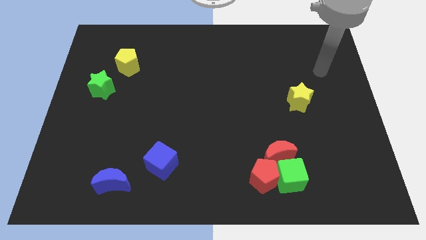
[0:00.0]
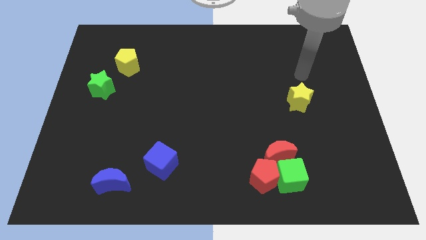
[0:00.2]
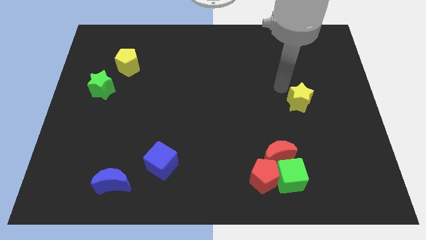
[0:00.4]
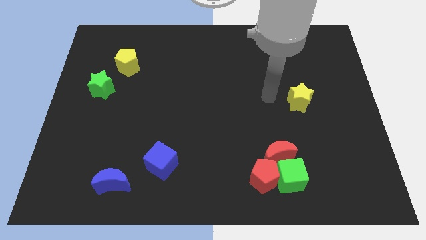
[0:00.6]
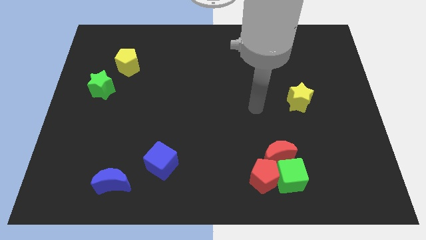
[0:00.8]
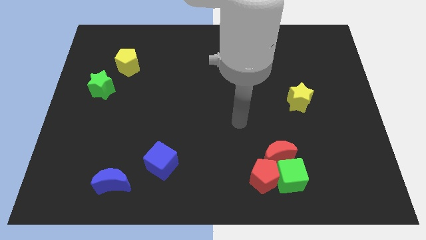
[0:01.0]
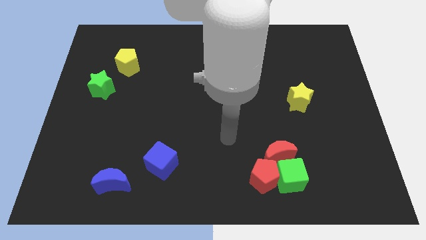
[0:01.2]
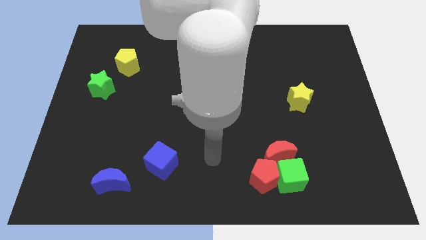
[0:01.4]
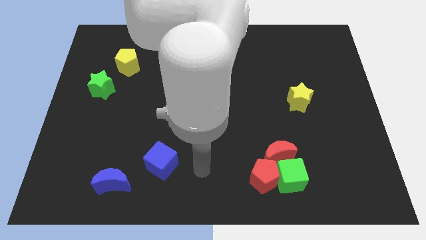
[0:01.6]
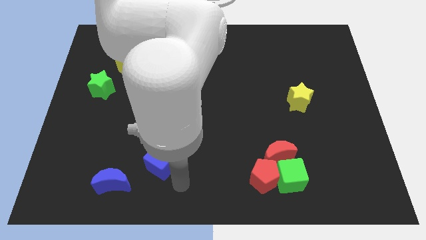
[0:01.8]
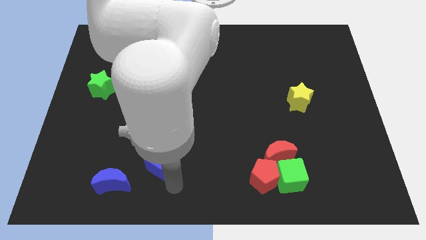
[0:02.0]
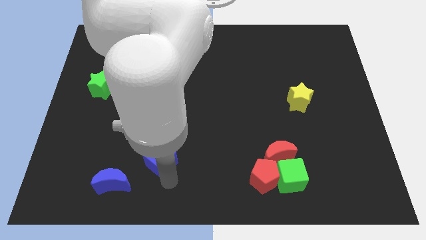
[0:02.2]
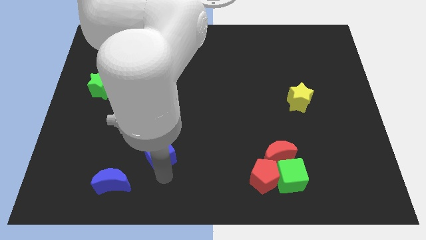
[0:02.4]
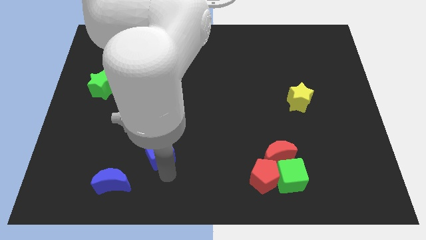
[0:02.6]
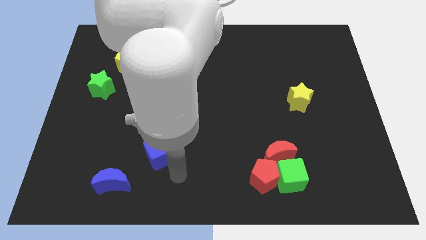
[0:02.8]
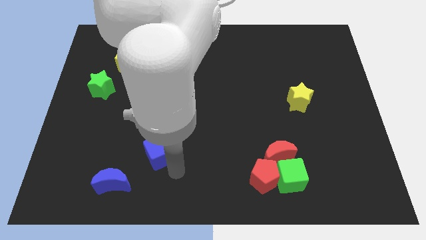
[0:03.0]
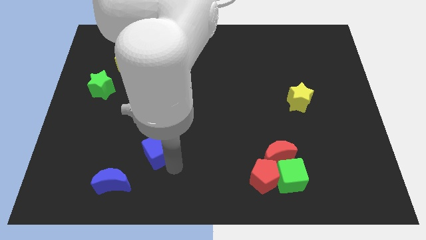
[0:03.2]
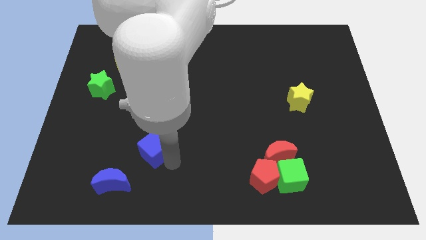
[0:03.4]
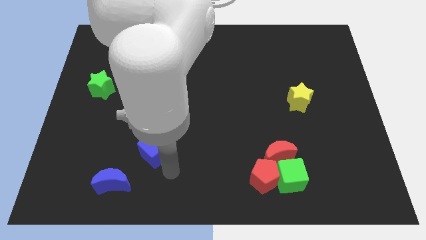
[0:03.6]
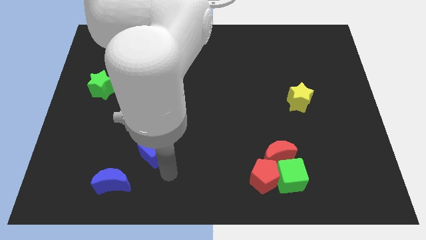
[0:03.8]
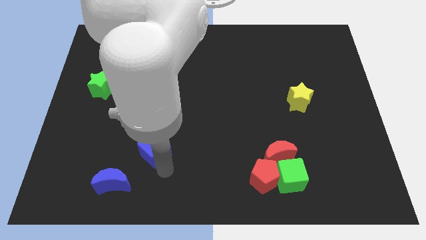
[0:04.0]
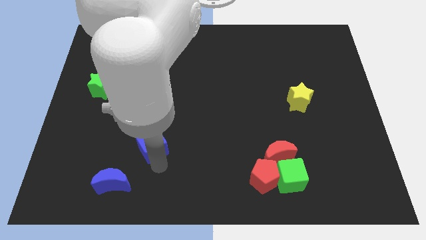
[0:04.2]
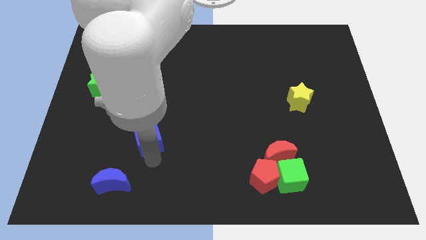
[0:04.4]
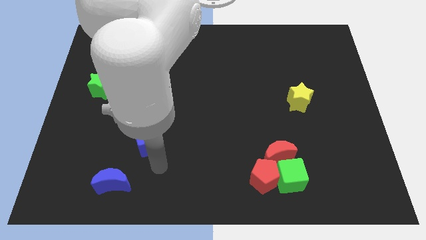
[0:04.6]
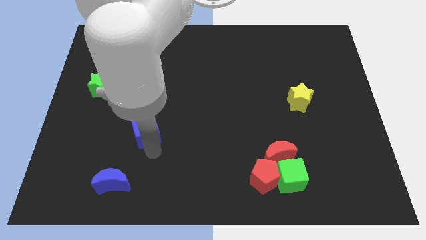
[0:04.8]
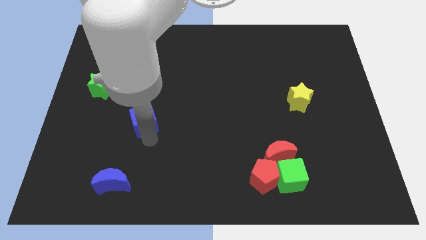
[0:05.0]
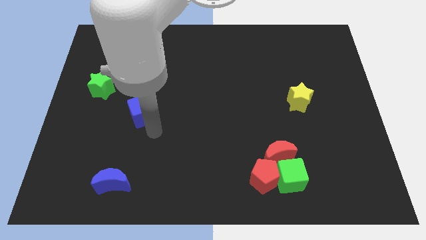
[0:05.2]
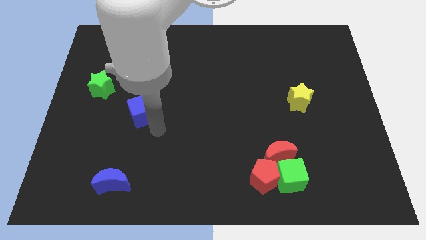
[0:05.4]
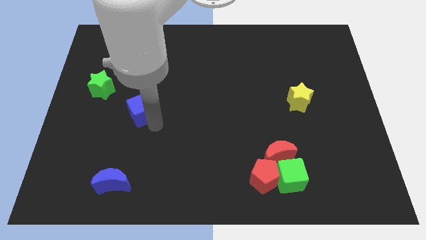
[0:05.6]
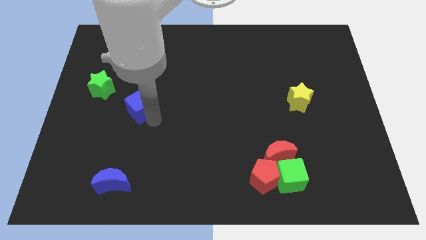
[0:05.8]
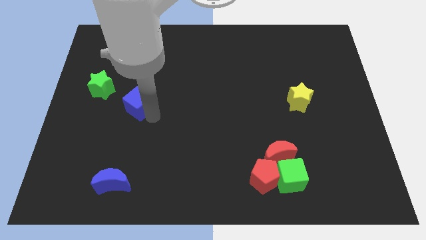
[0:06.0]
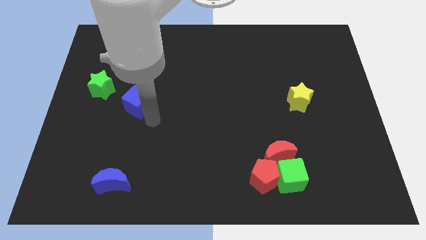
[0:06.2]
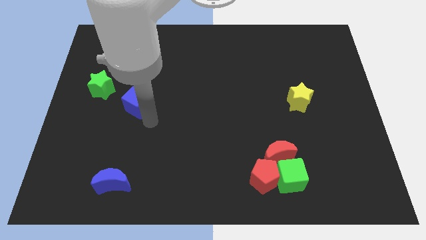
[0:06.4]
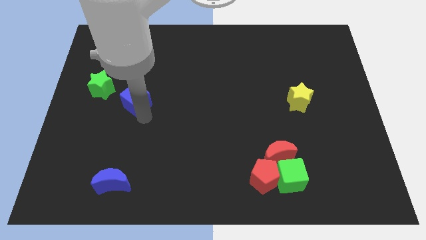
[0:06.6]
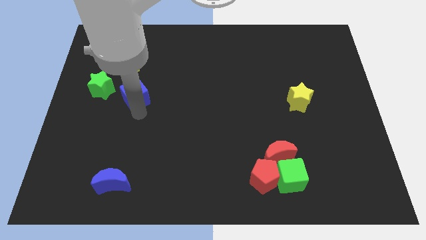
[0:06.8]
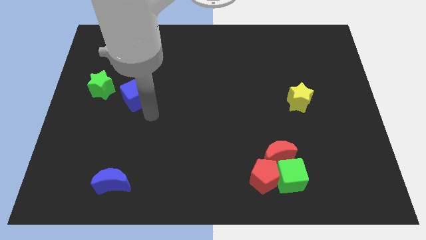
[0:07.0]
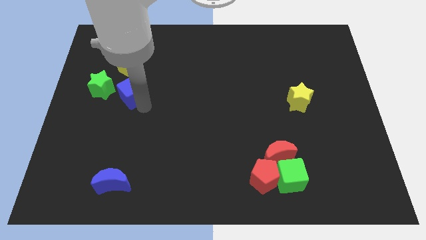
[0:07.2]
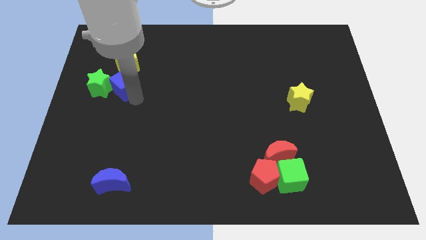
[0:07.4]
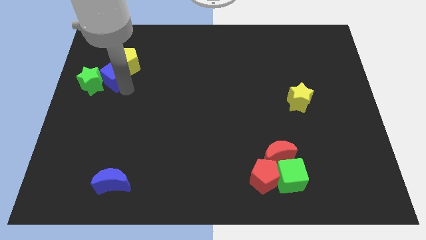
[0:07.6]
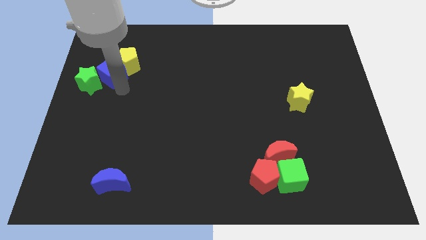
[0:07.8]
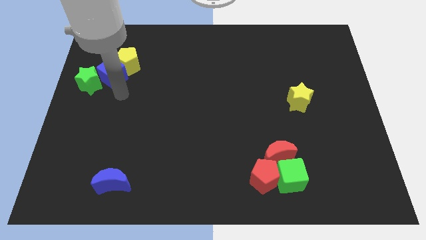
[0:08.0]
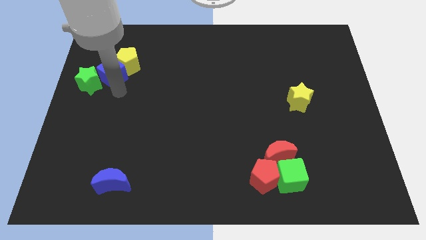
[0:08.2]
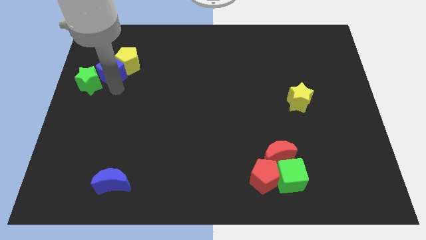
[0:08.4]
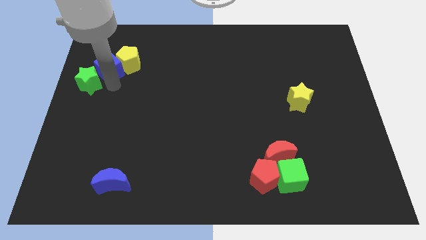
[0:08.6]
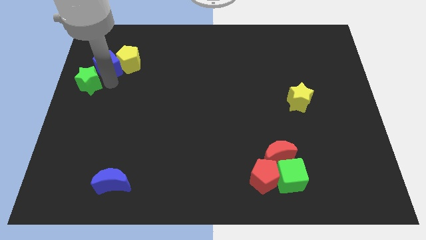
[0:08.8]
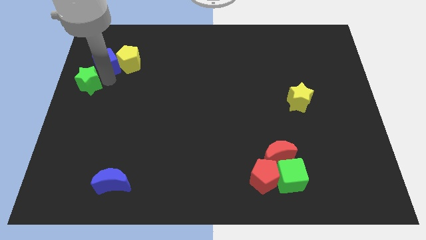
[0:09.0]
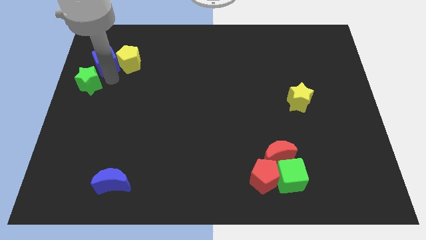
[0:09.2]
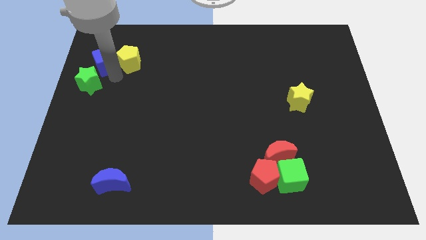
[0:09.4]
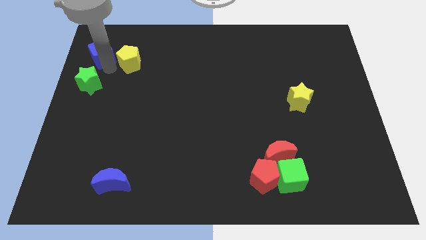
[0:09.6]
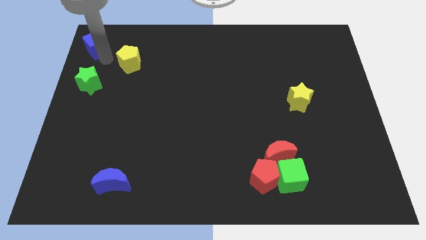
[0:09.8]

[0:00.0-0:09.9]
move the blue cube to the upper left corner

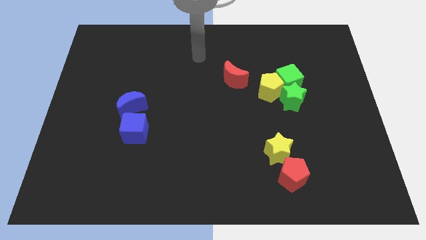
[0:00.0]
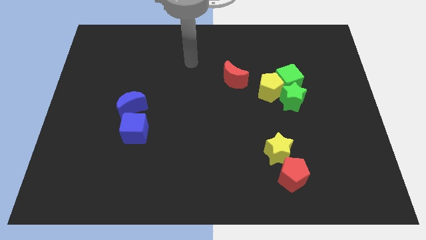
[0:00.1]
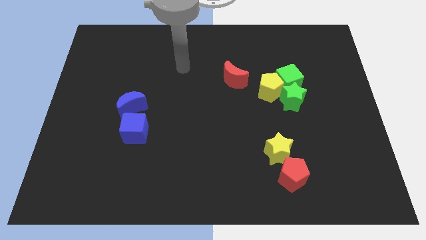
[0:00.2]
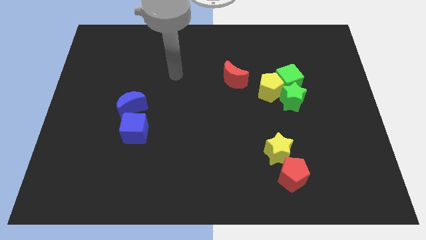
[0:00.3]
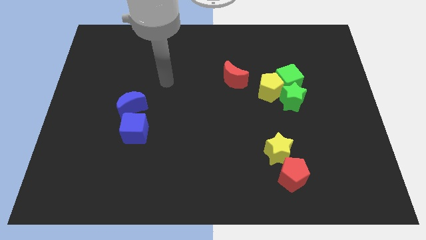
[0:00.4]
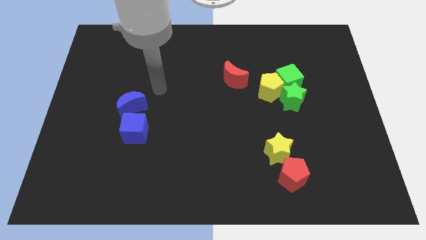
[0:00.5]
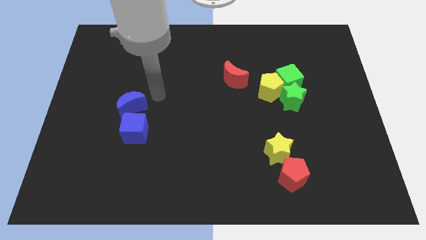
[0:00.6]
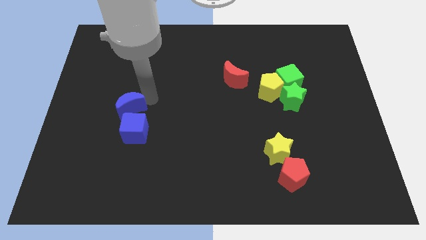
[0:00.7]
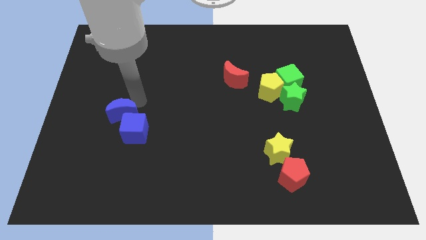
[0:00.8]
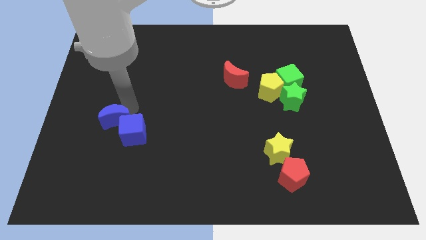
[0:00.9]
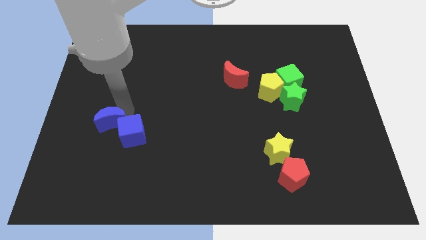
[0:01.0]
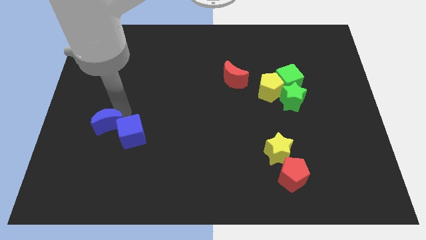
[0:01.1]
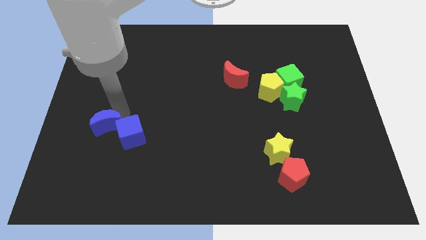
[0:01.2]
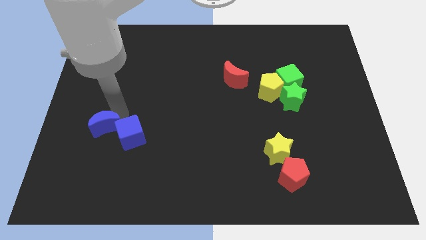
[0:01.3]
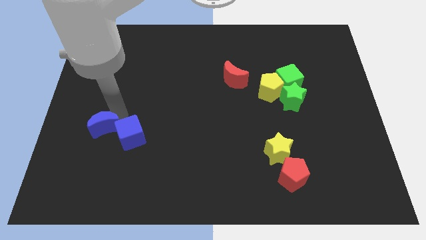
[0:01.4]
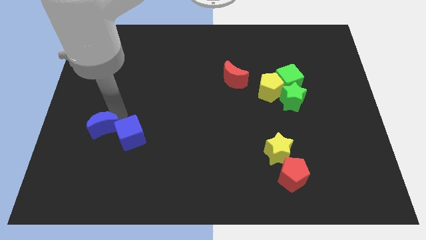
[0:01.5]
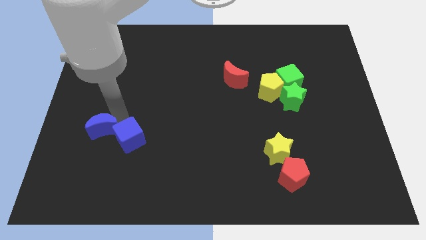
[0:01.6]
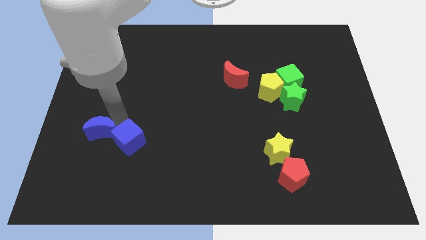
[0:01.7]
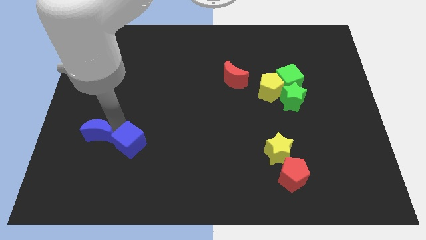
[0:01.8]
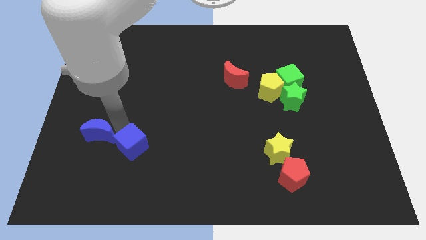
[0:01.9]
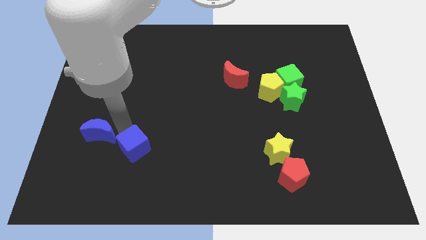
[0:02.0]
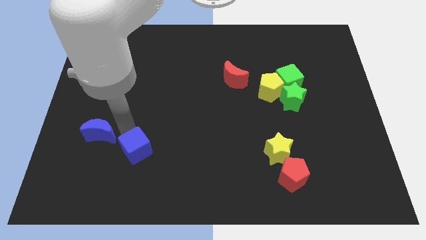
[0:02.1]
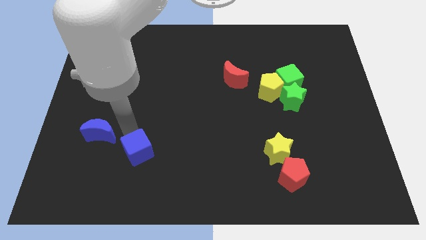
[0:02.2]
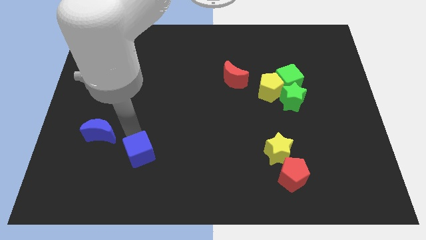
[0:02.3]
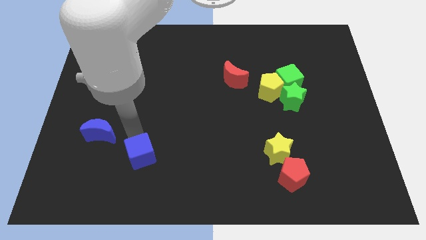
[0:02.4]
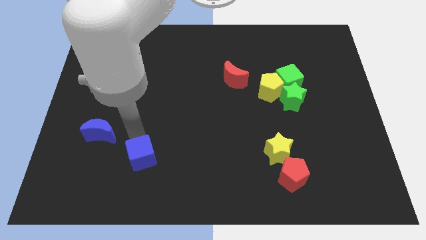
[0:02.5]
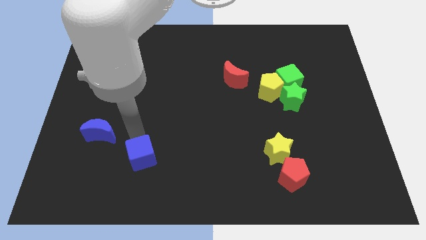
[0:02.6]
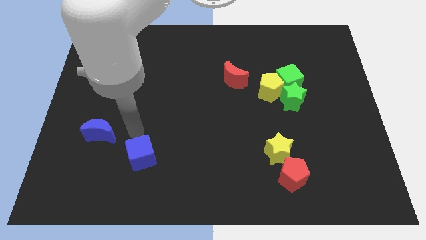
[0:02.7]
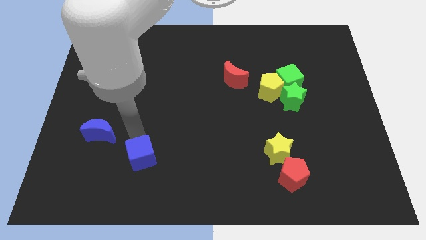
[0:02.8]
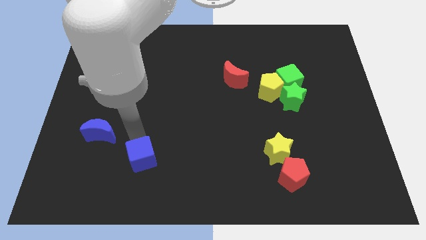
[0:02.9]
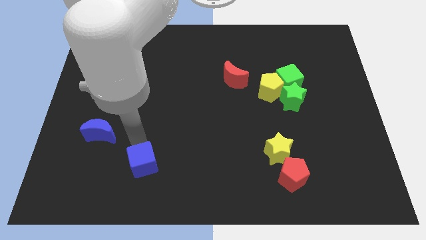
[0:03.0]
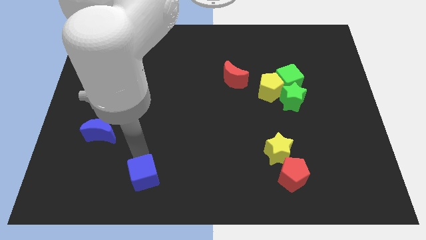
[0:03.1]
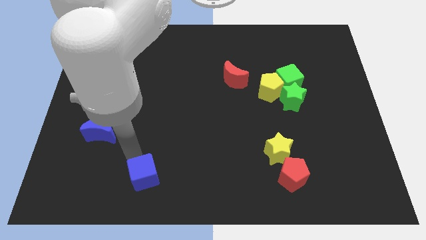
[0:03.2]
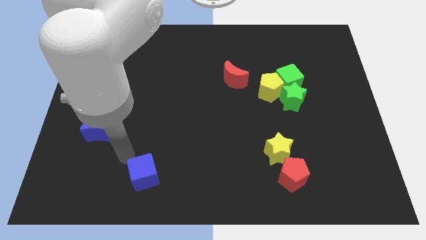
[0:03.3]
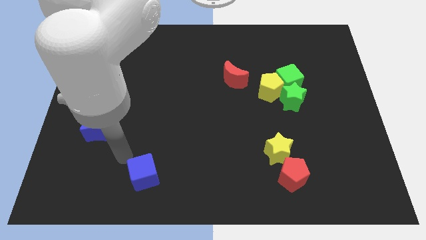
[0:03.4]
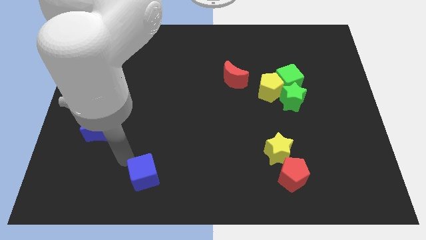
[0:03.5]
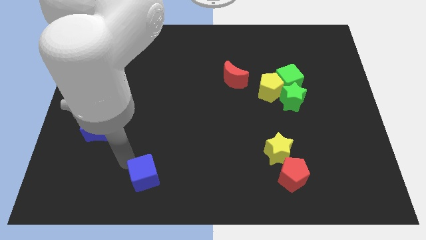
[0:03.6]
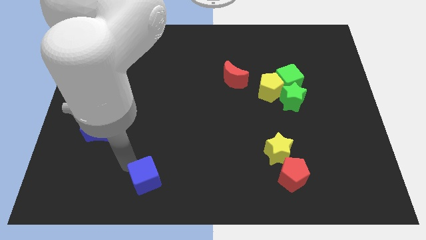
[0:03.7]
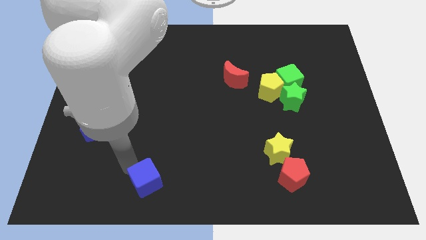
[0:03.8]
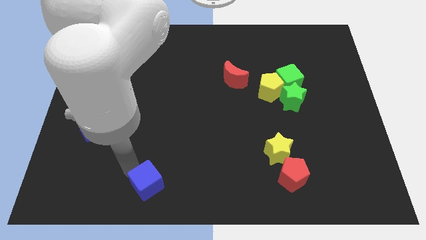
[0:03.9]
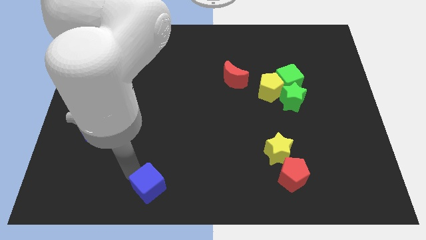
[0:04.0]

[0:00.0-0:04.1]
slide the blue cube to the bottom
